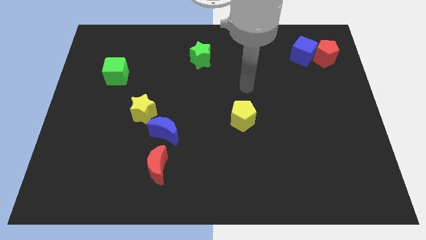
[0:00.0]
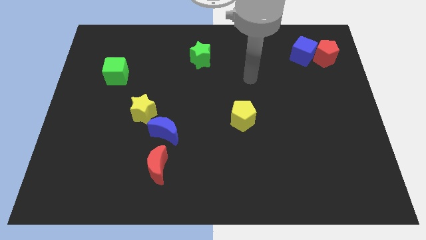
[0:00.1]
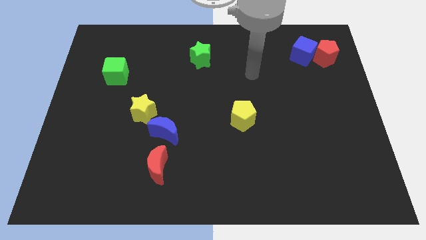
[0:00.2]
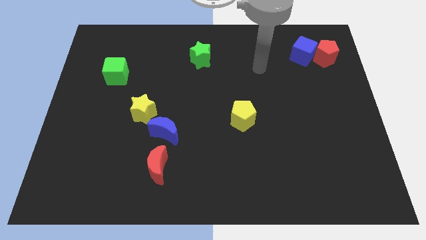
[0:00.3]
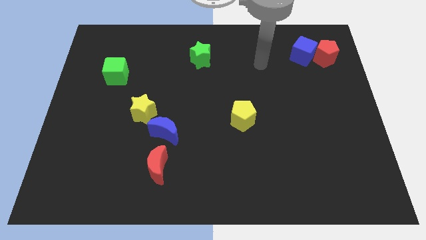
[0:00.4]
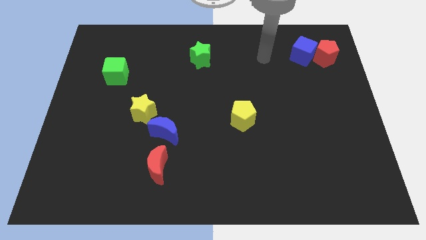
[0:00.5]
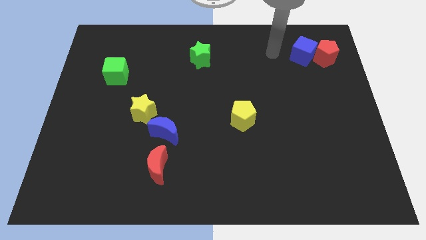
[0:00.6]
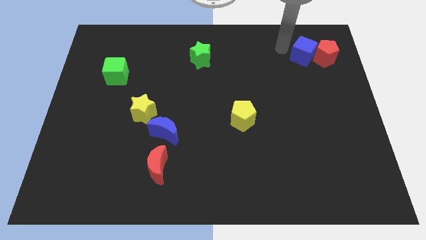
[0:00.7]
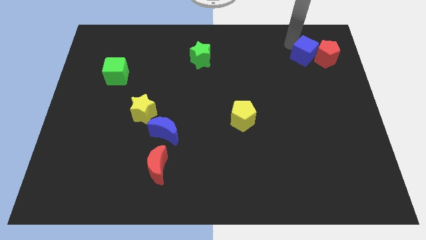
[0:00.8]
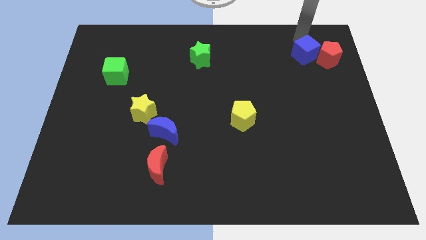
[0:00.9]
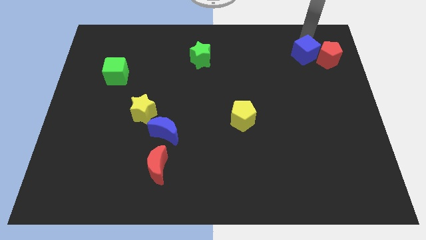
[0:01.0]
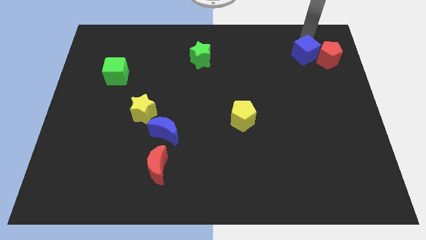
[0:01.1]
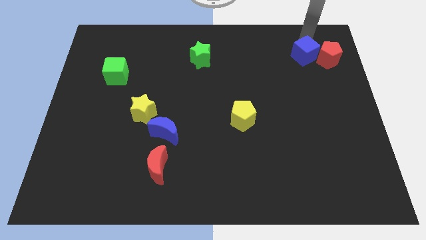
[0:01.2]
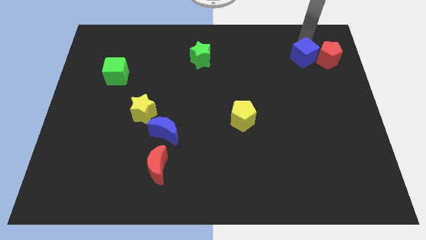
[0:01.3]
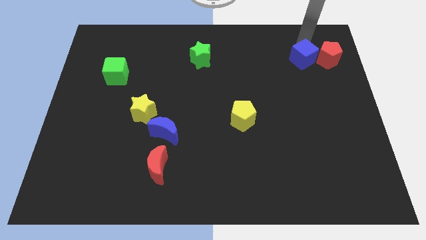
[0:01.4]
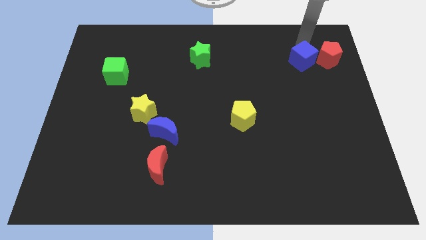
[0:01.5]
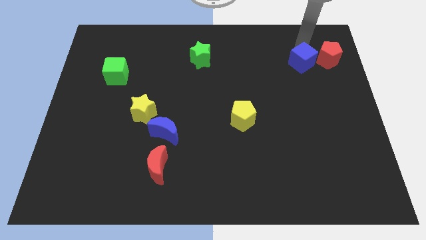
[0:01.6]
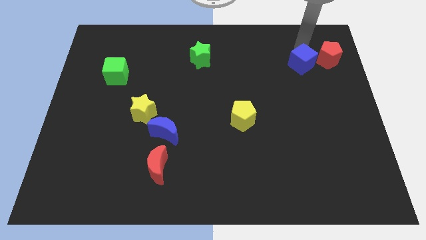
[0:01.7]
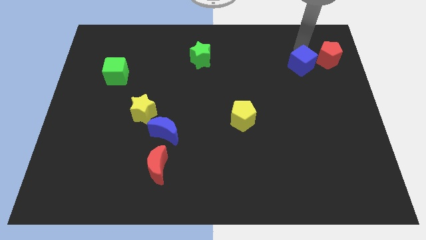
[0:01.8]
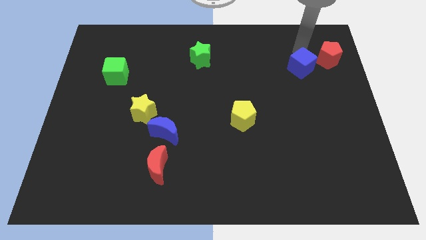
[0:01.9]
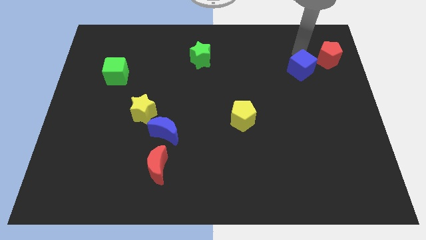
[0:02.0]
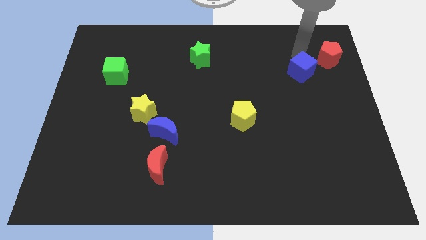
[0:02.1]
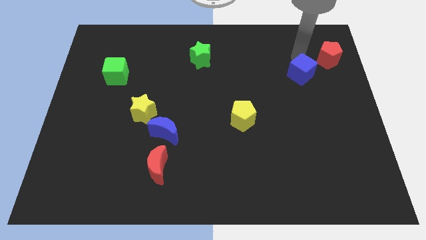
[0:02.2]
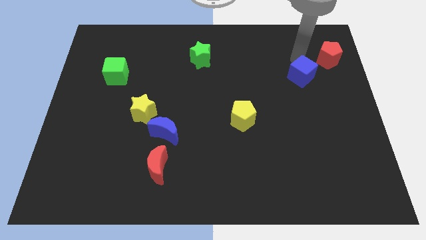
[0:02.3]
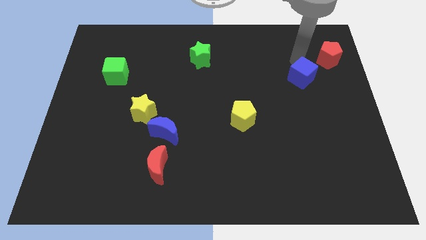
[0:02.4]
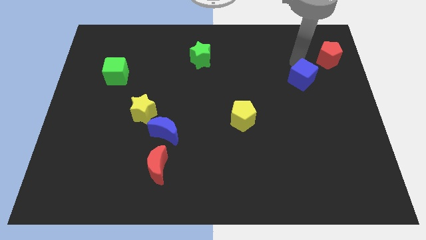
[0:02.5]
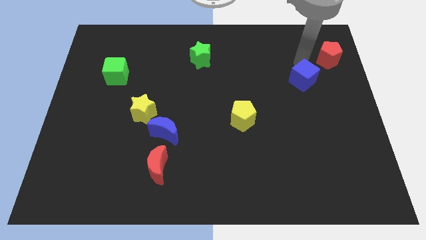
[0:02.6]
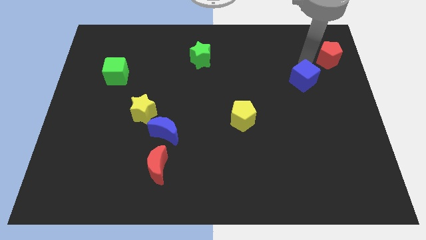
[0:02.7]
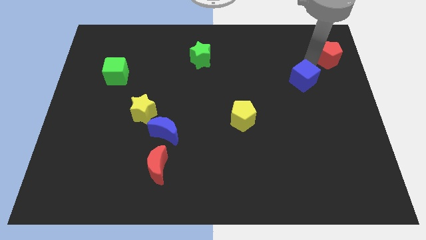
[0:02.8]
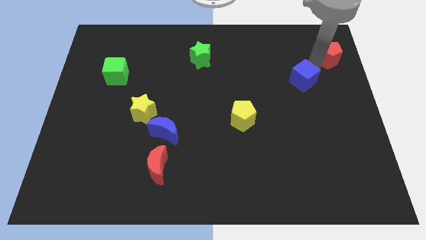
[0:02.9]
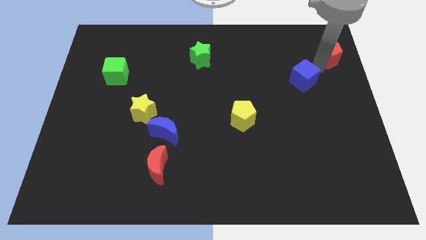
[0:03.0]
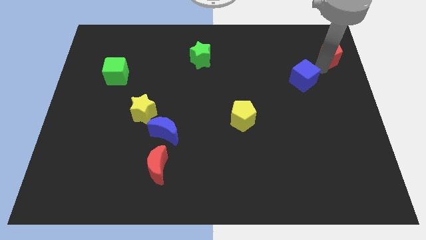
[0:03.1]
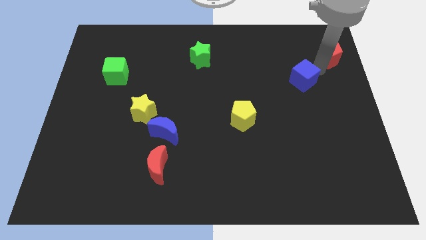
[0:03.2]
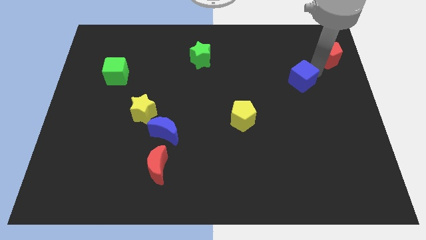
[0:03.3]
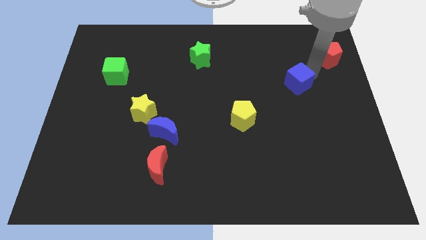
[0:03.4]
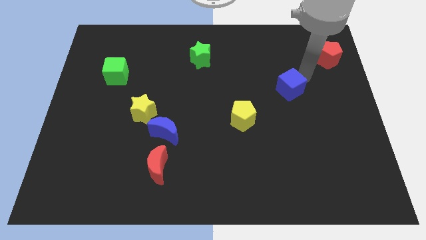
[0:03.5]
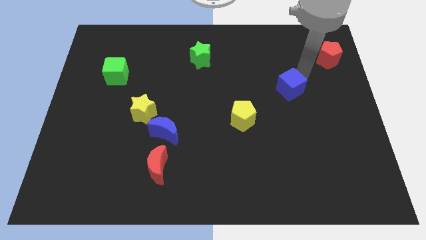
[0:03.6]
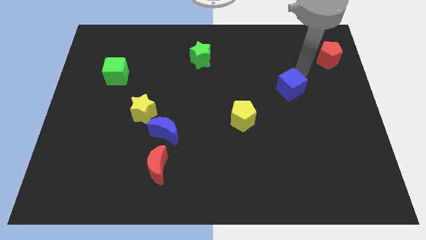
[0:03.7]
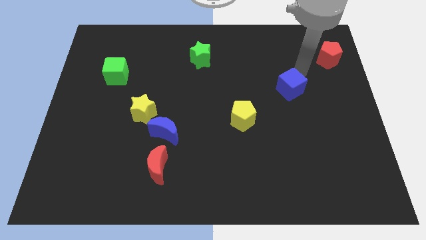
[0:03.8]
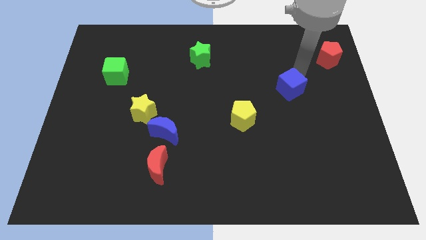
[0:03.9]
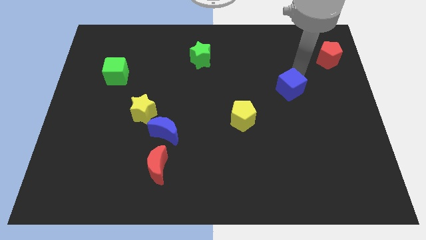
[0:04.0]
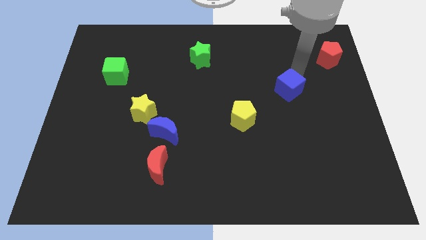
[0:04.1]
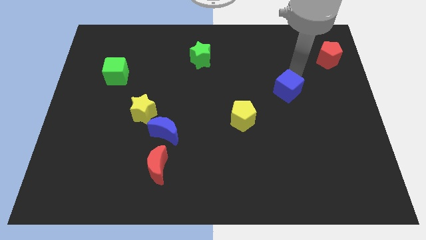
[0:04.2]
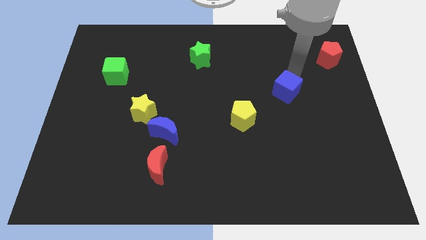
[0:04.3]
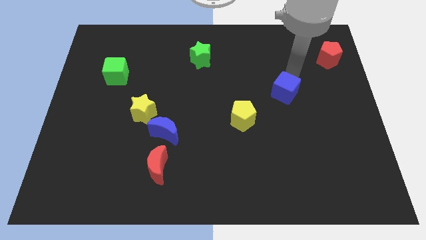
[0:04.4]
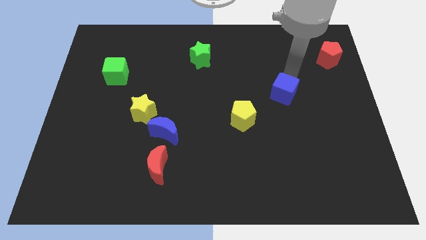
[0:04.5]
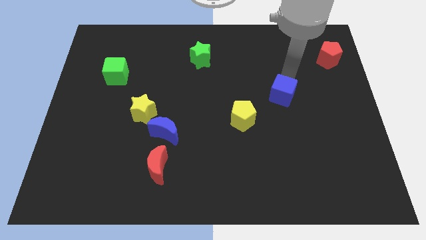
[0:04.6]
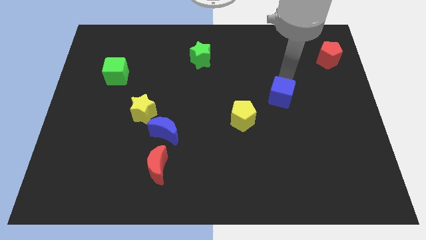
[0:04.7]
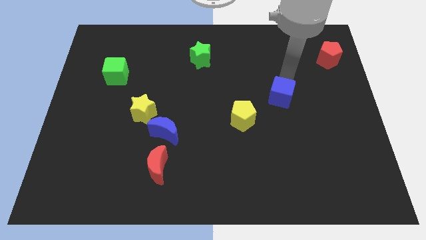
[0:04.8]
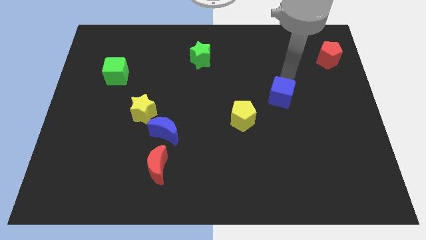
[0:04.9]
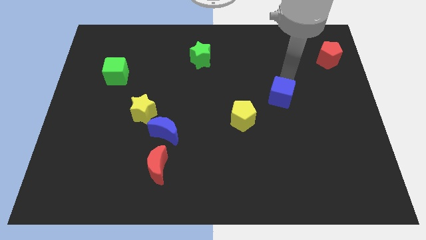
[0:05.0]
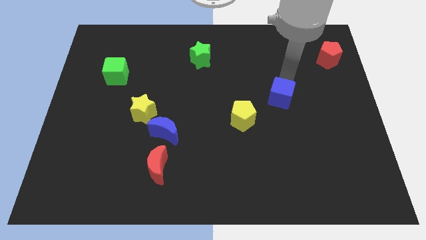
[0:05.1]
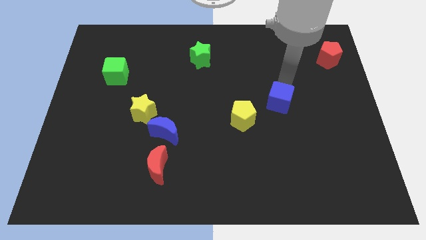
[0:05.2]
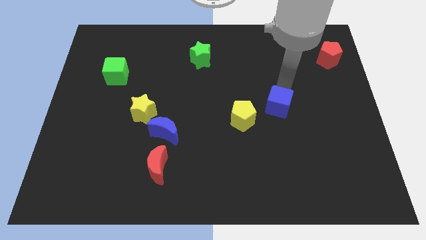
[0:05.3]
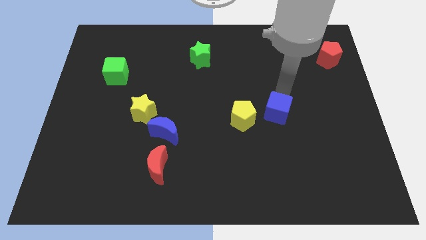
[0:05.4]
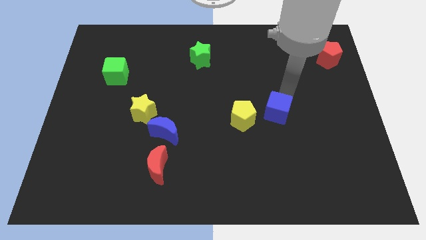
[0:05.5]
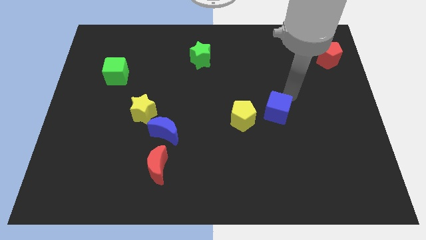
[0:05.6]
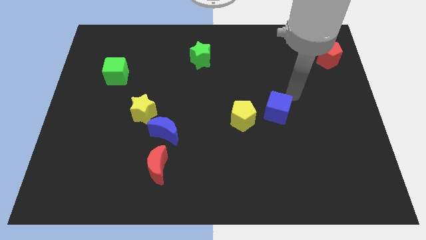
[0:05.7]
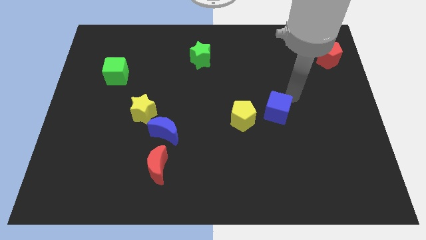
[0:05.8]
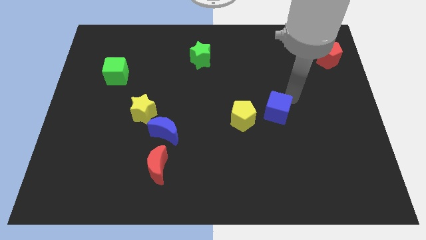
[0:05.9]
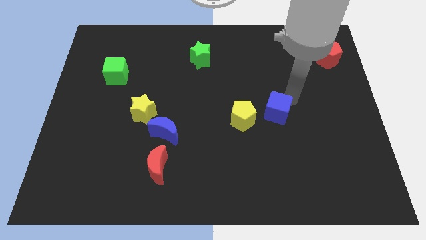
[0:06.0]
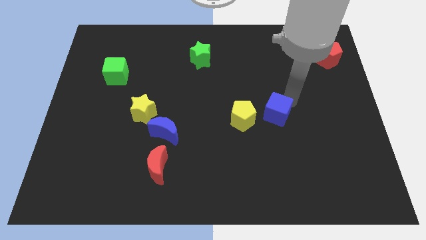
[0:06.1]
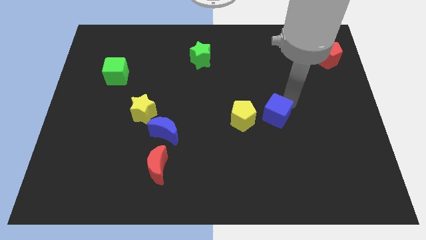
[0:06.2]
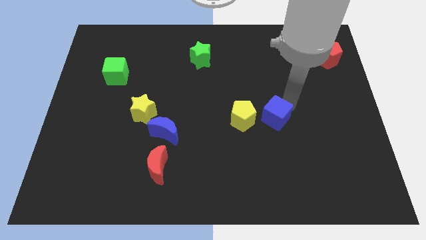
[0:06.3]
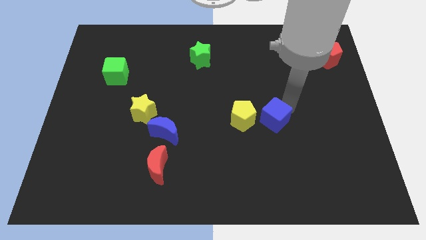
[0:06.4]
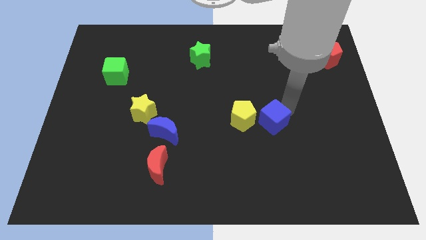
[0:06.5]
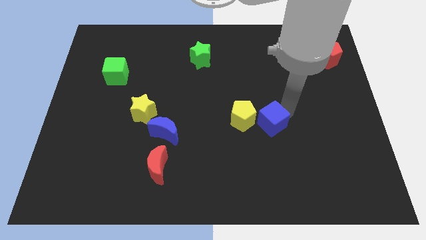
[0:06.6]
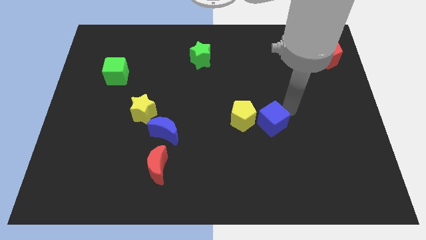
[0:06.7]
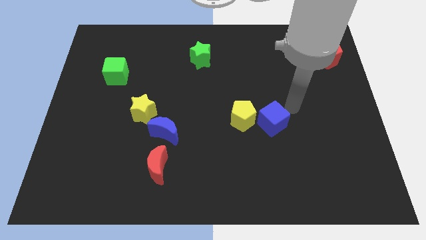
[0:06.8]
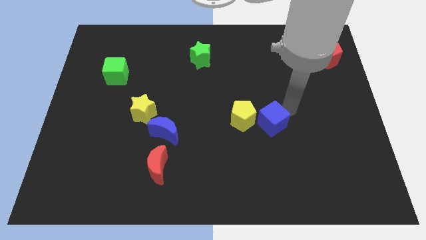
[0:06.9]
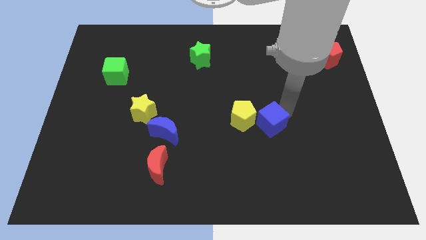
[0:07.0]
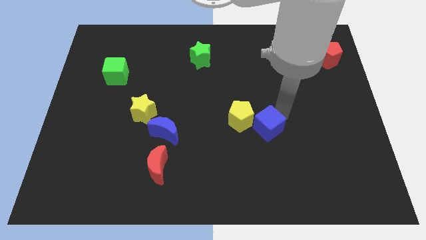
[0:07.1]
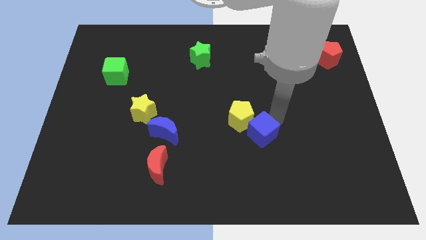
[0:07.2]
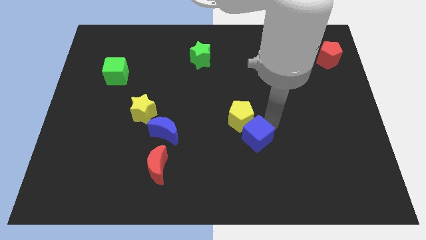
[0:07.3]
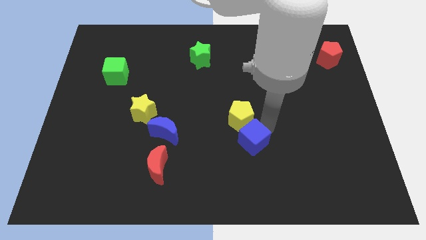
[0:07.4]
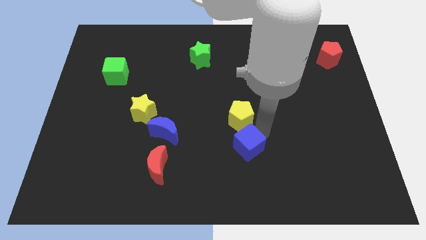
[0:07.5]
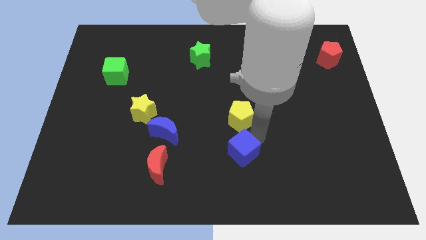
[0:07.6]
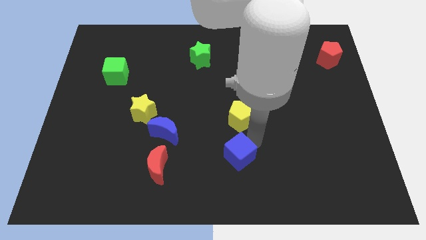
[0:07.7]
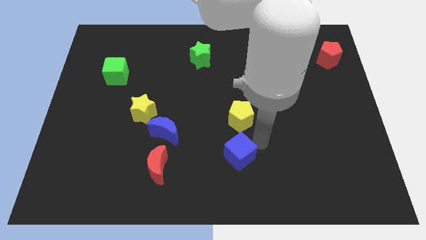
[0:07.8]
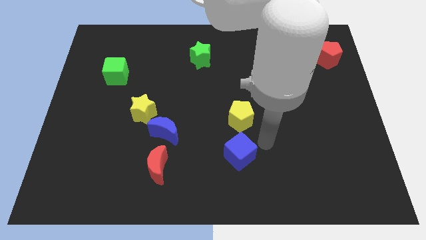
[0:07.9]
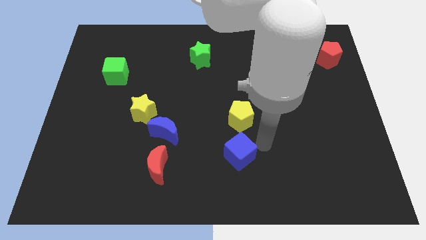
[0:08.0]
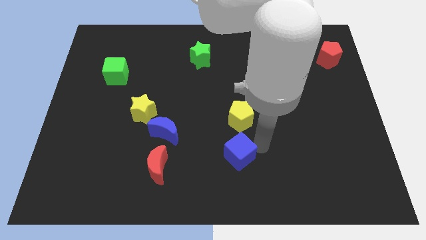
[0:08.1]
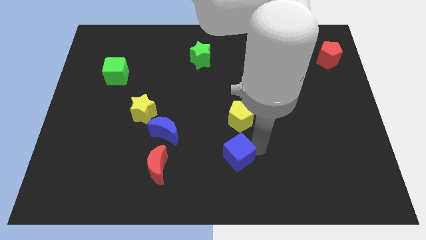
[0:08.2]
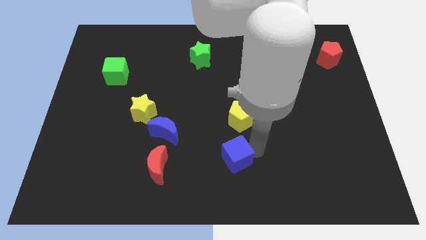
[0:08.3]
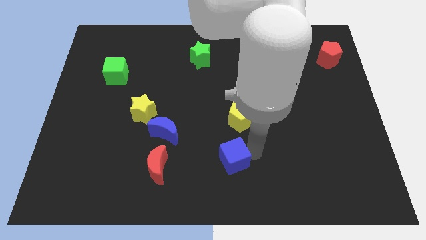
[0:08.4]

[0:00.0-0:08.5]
put the blue cube right of the red moon
